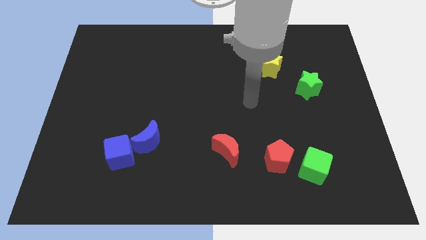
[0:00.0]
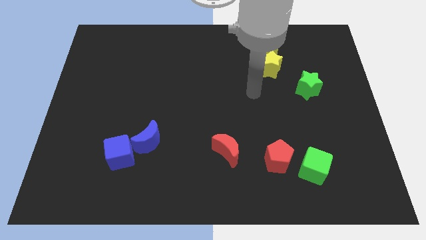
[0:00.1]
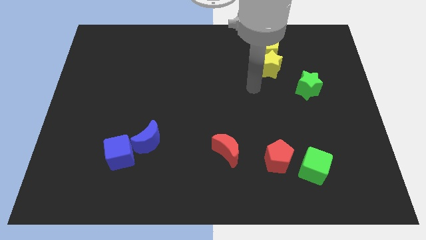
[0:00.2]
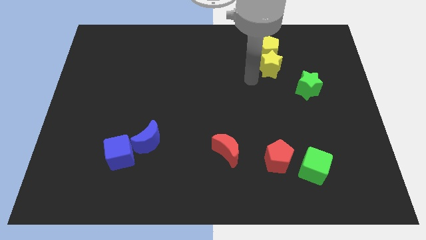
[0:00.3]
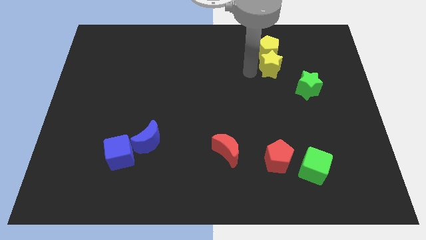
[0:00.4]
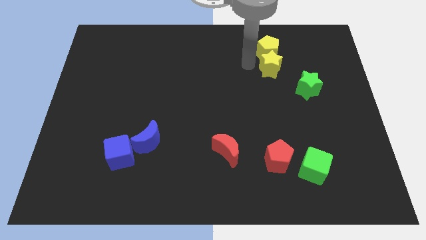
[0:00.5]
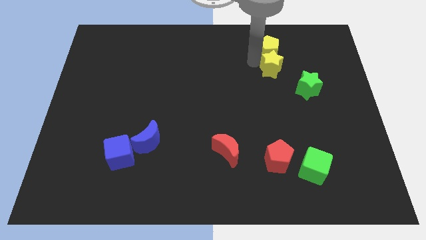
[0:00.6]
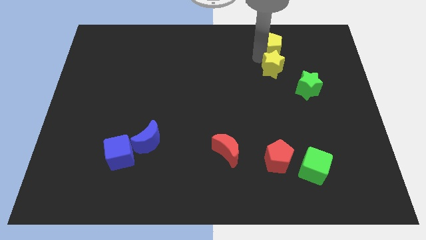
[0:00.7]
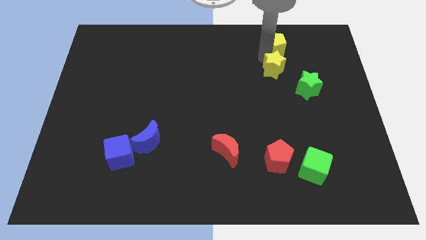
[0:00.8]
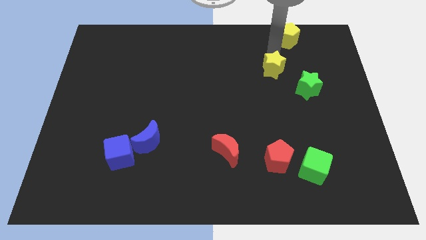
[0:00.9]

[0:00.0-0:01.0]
move the yellow star away from the yellow pentagon

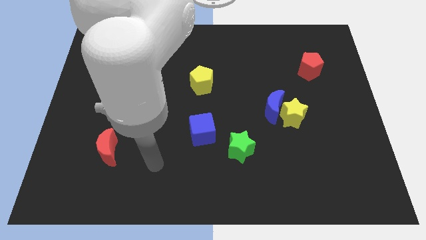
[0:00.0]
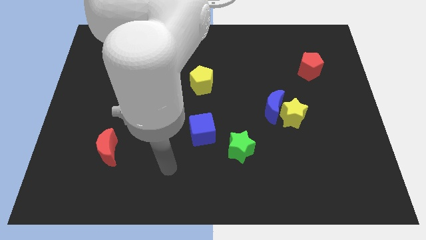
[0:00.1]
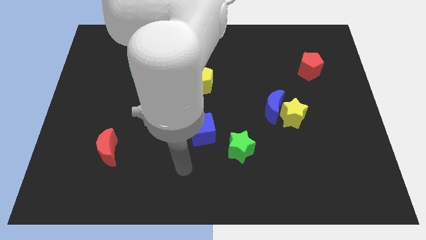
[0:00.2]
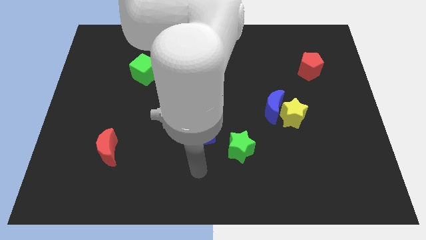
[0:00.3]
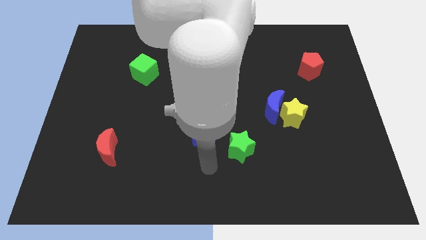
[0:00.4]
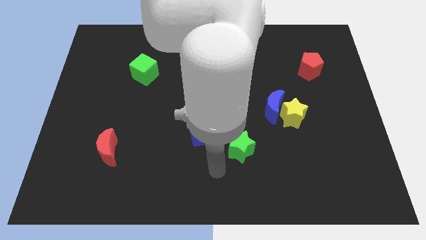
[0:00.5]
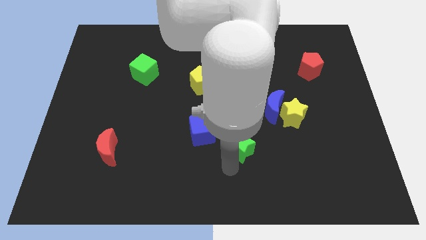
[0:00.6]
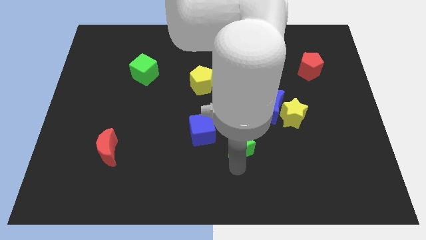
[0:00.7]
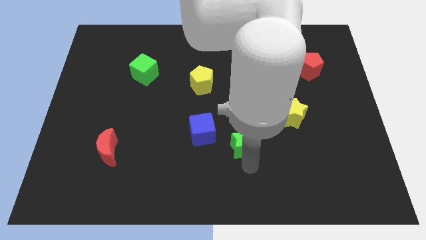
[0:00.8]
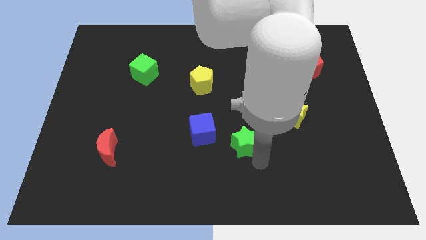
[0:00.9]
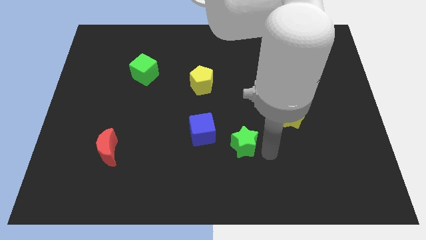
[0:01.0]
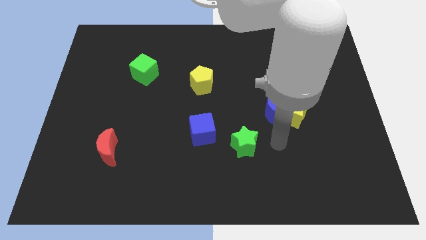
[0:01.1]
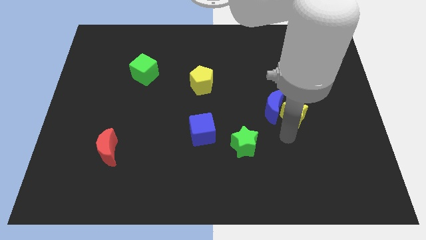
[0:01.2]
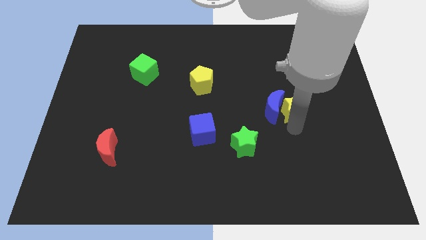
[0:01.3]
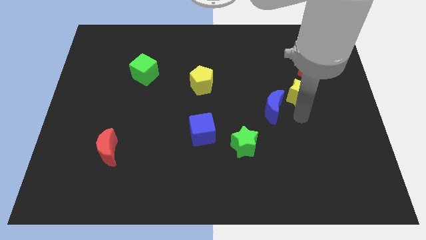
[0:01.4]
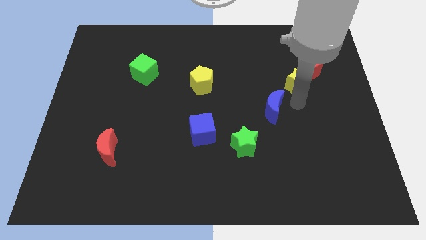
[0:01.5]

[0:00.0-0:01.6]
move the blue moon away from the yellow star

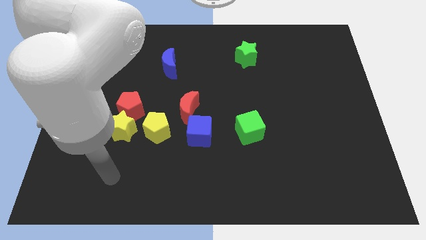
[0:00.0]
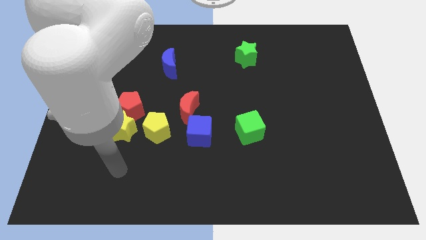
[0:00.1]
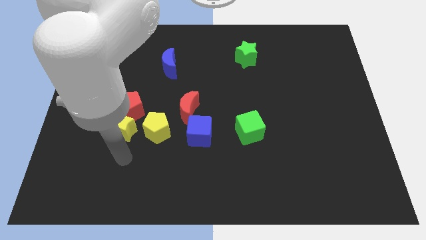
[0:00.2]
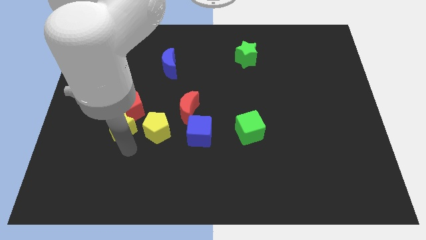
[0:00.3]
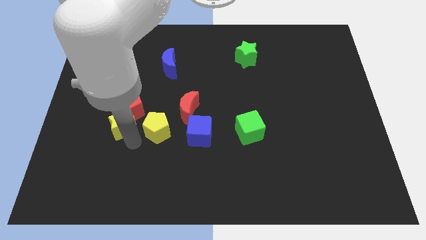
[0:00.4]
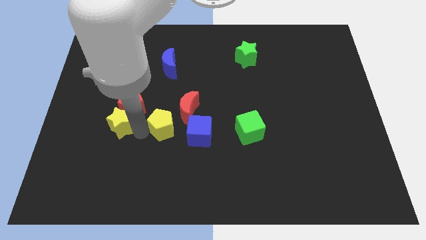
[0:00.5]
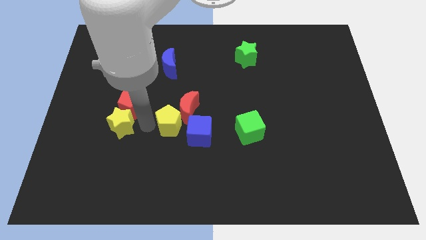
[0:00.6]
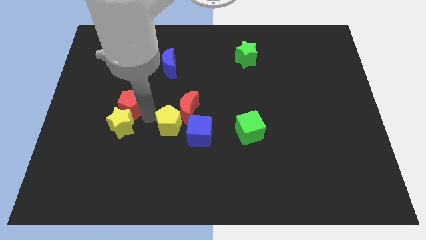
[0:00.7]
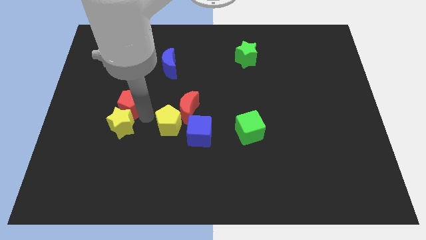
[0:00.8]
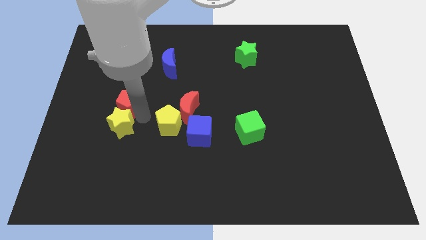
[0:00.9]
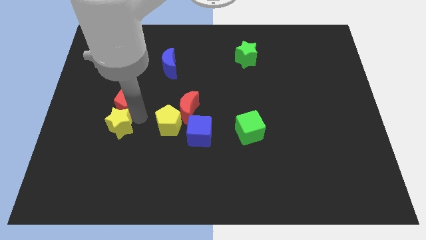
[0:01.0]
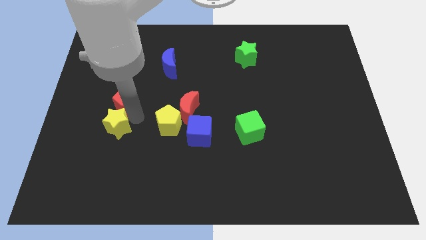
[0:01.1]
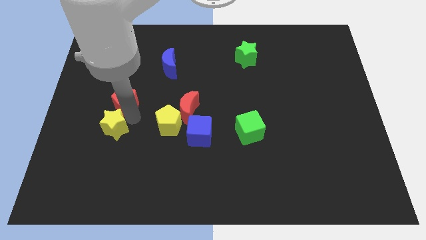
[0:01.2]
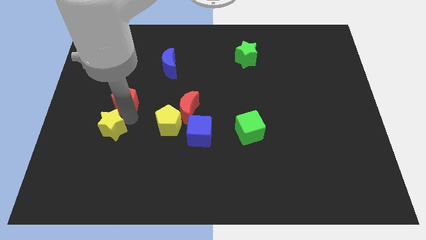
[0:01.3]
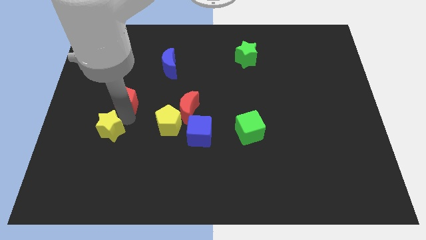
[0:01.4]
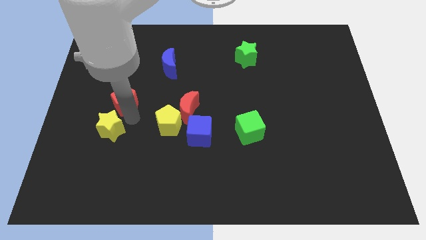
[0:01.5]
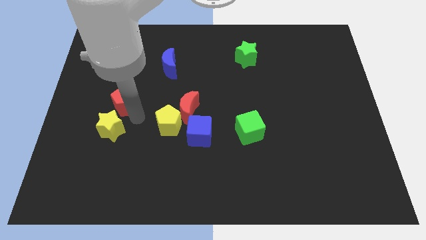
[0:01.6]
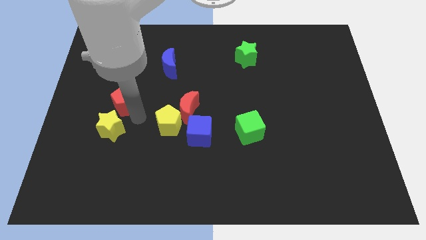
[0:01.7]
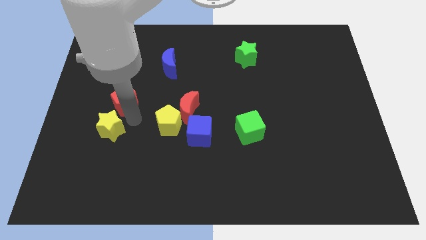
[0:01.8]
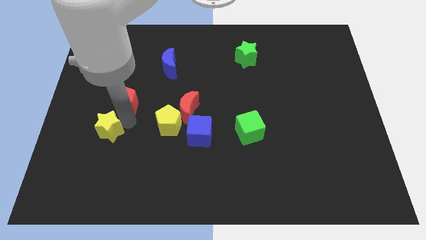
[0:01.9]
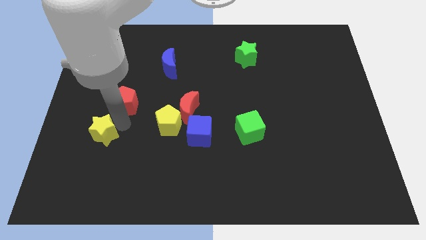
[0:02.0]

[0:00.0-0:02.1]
separate the yellow star from the red pentagon and yellow pentagon

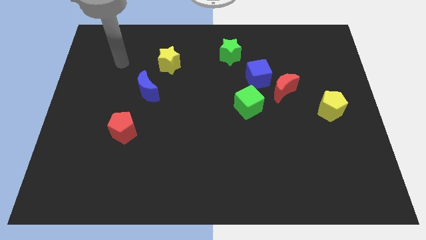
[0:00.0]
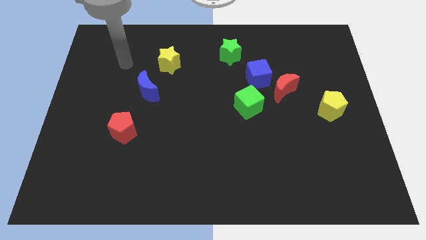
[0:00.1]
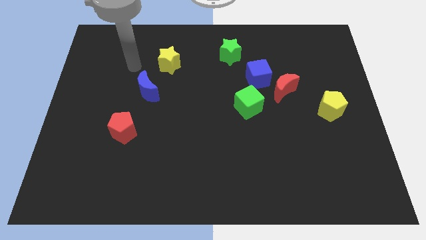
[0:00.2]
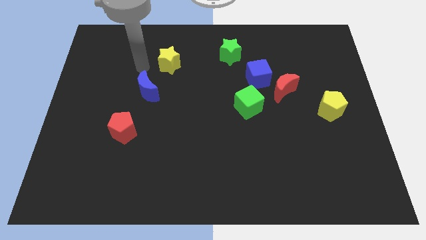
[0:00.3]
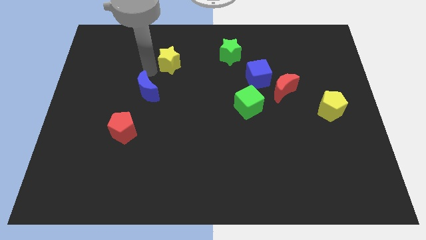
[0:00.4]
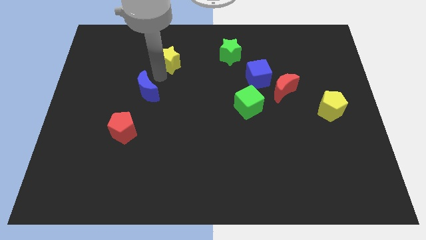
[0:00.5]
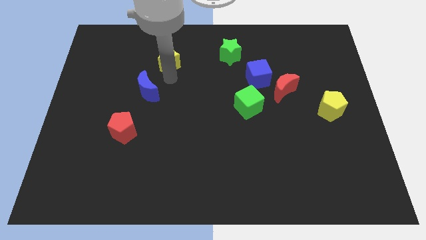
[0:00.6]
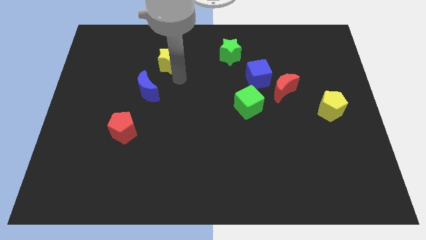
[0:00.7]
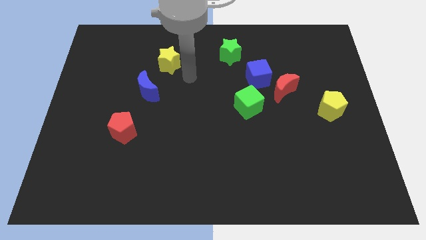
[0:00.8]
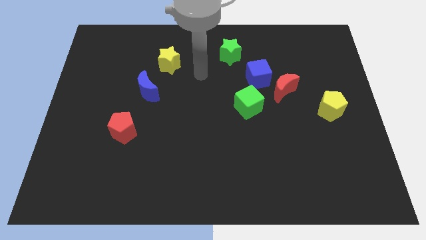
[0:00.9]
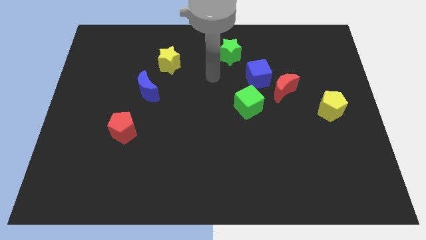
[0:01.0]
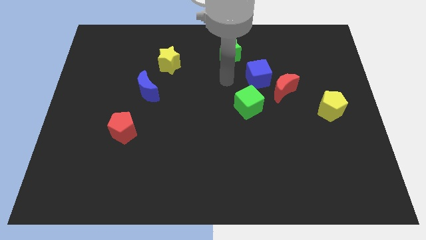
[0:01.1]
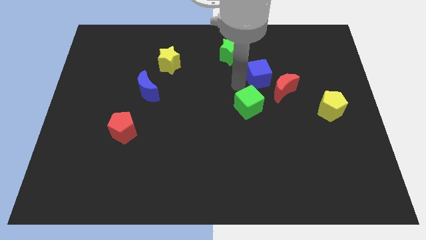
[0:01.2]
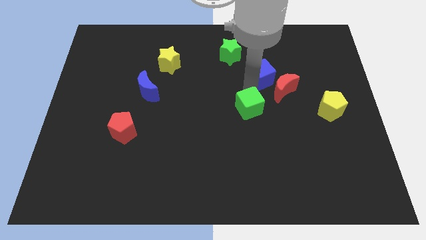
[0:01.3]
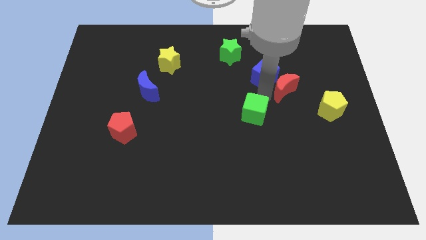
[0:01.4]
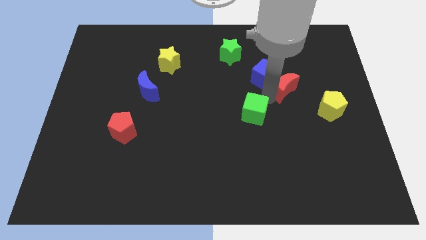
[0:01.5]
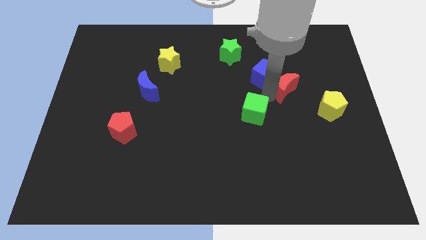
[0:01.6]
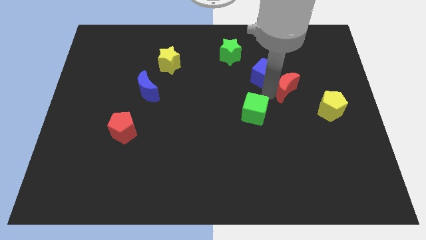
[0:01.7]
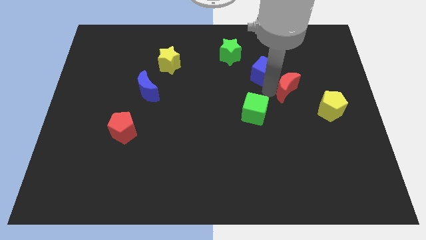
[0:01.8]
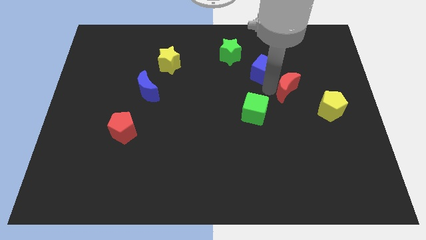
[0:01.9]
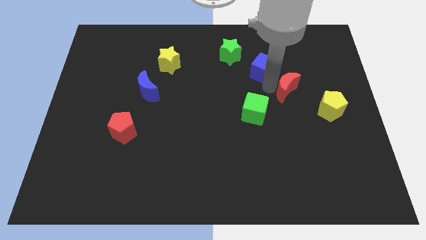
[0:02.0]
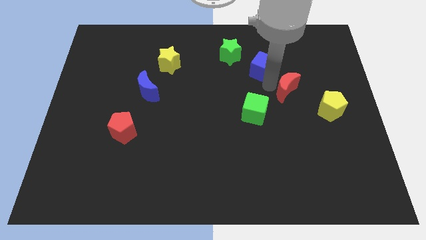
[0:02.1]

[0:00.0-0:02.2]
move the blue cube away from the red moon and green cube

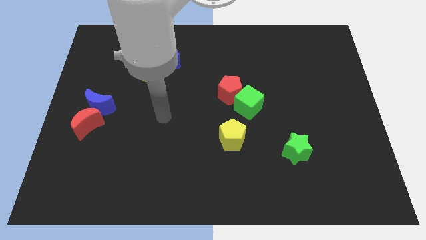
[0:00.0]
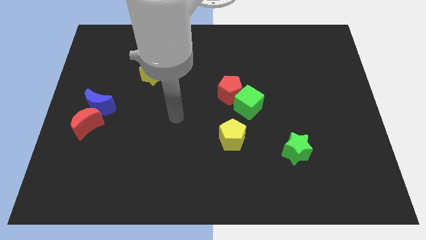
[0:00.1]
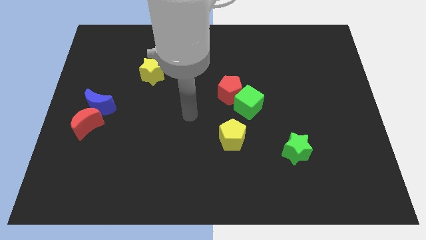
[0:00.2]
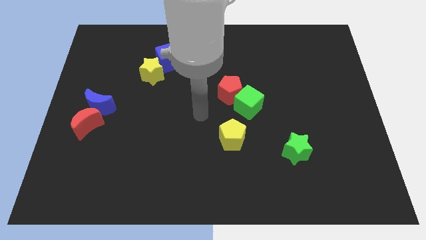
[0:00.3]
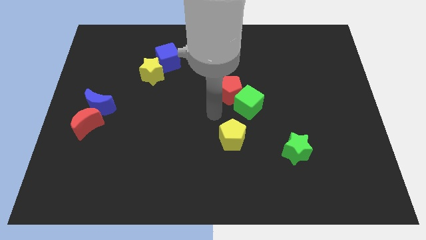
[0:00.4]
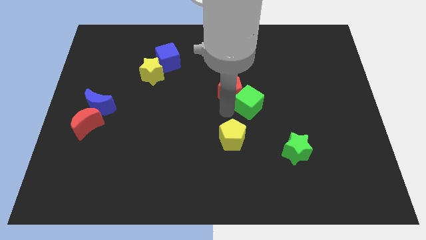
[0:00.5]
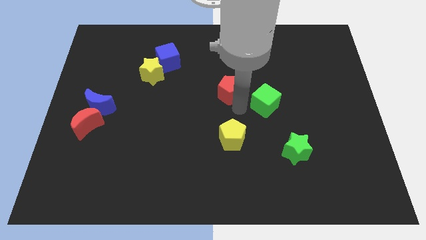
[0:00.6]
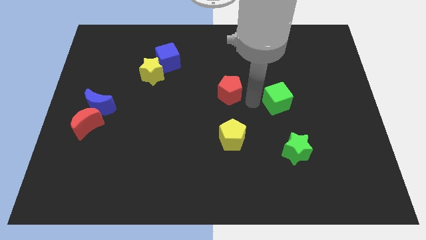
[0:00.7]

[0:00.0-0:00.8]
separate the red pentagon from the green cube

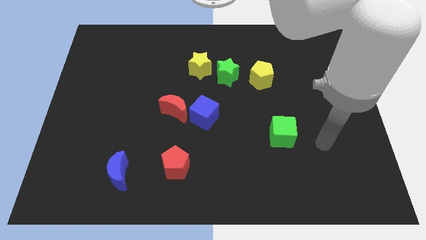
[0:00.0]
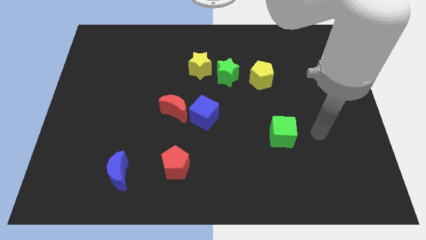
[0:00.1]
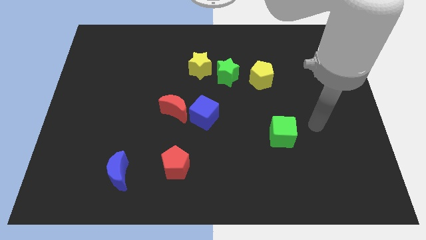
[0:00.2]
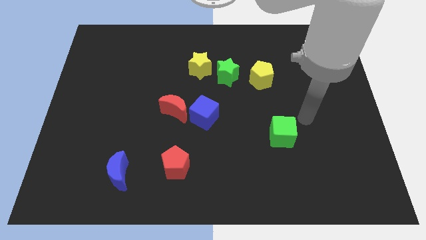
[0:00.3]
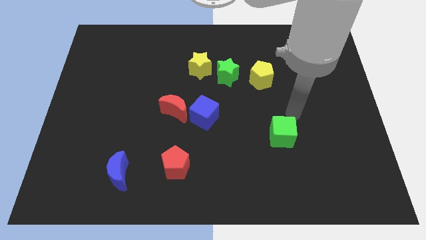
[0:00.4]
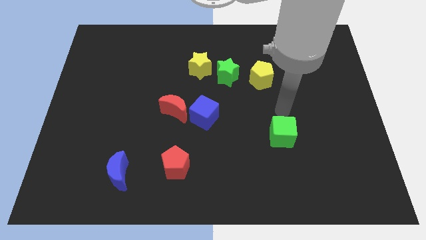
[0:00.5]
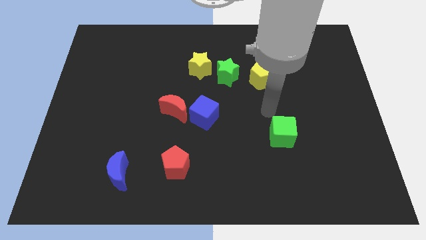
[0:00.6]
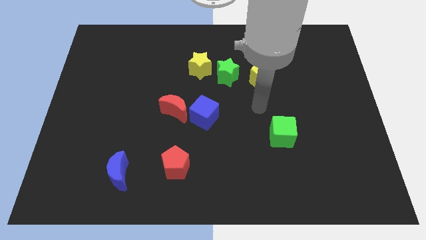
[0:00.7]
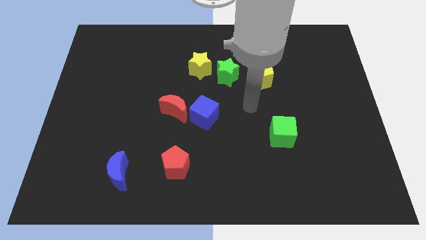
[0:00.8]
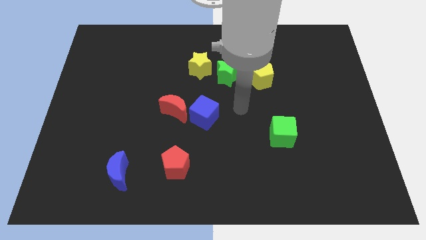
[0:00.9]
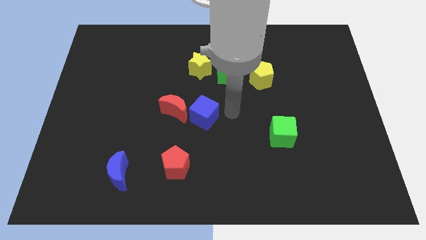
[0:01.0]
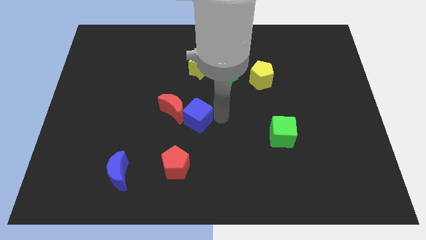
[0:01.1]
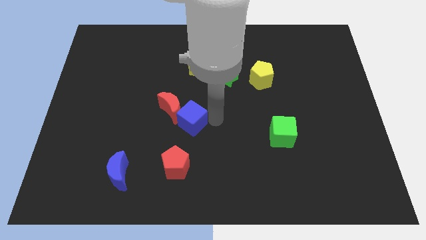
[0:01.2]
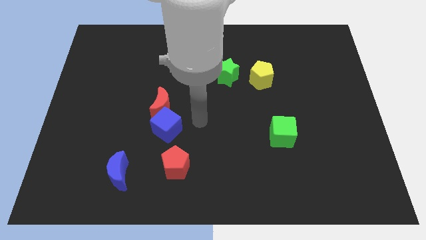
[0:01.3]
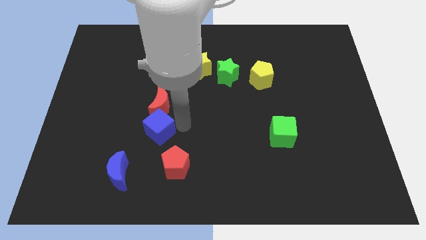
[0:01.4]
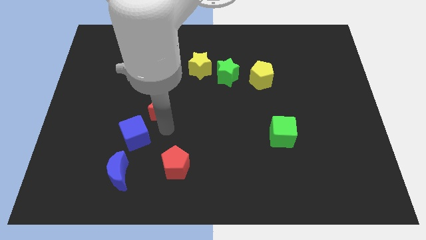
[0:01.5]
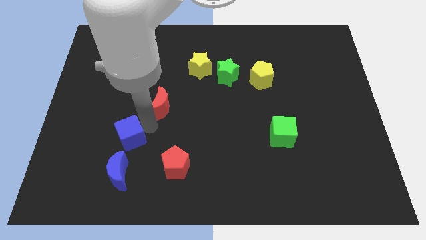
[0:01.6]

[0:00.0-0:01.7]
move the red moon away from the blue cube
